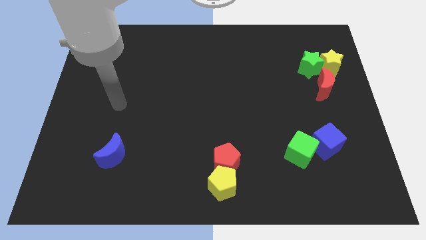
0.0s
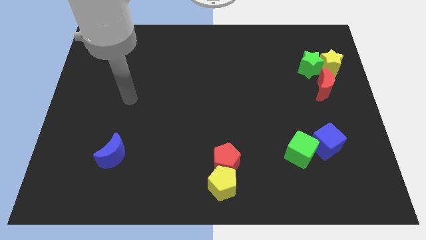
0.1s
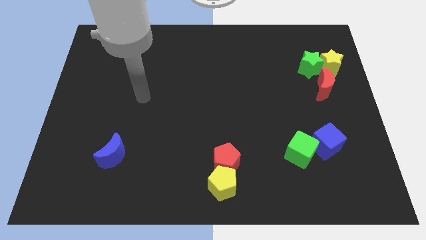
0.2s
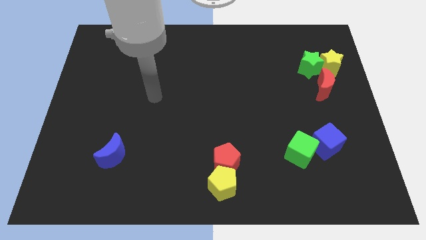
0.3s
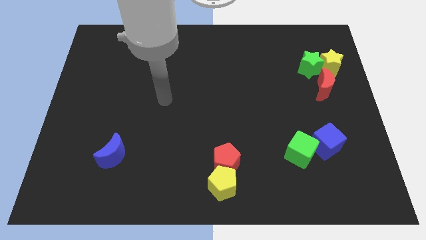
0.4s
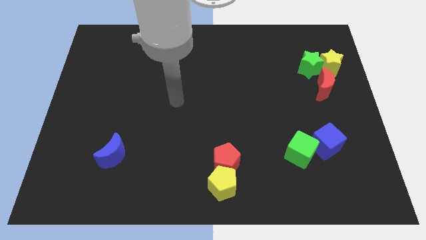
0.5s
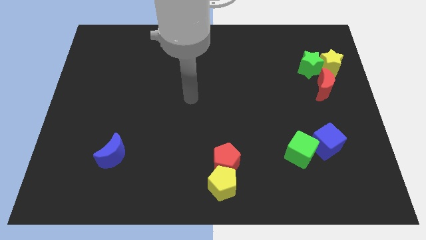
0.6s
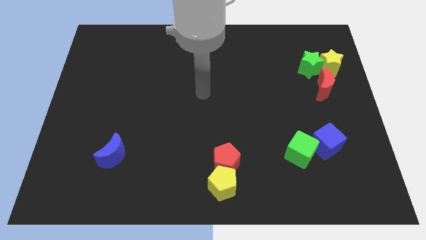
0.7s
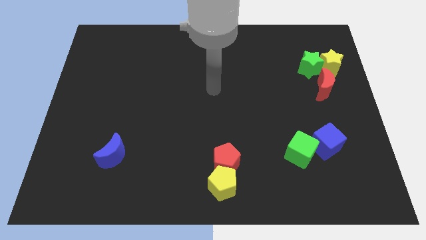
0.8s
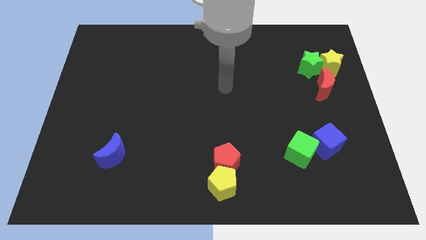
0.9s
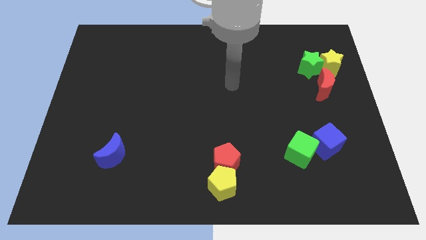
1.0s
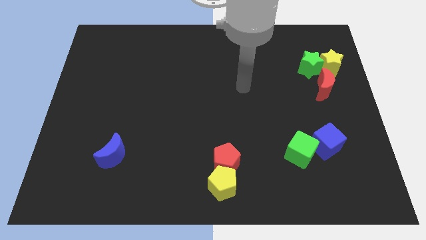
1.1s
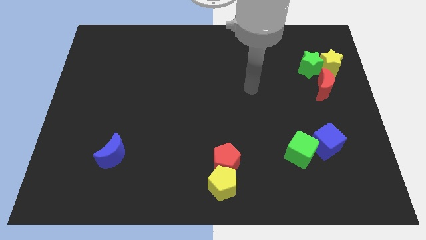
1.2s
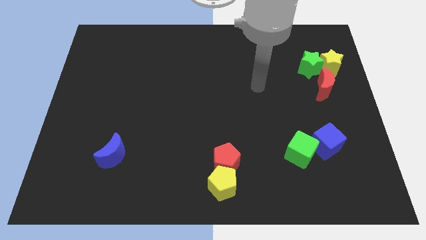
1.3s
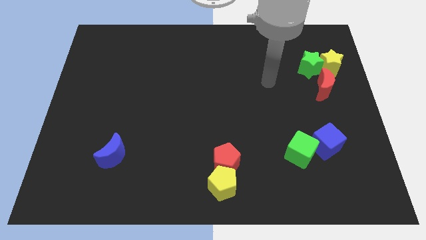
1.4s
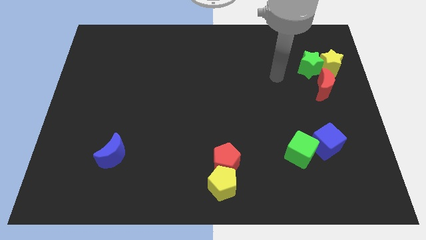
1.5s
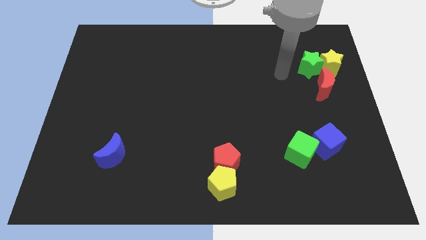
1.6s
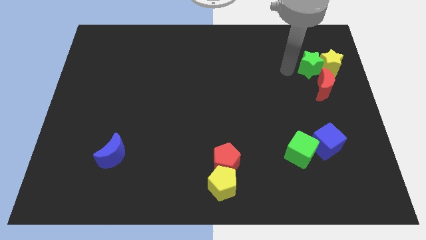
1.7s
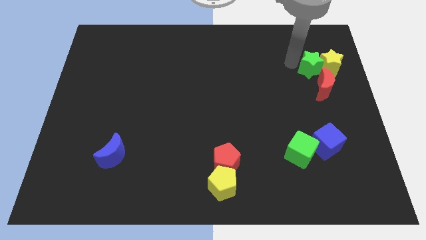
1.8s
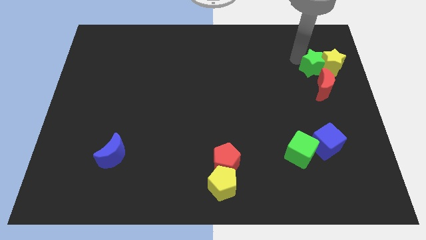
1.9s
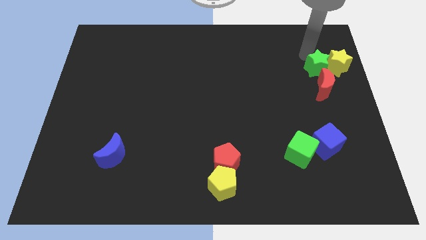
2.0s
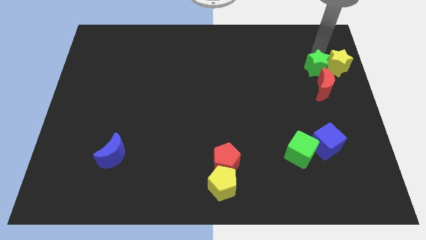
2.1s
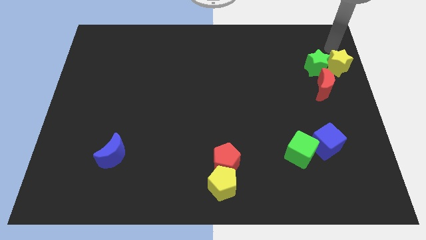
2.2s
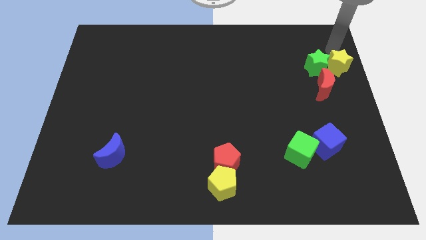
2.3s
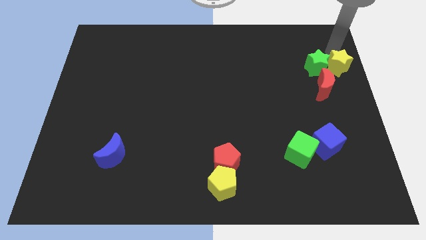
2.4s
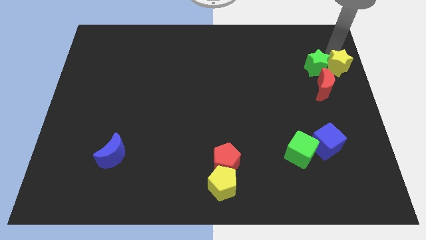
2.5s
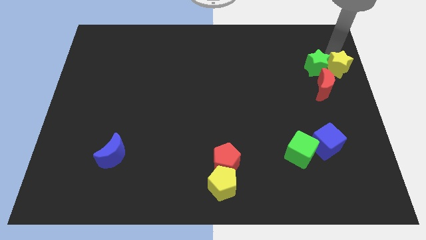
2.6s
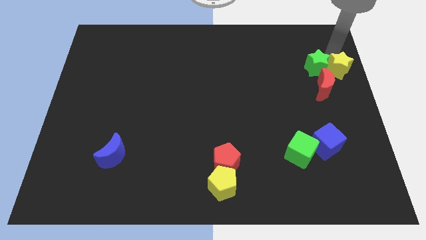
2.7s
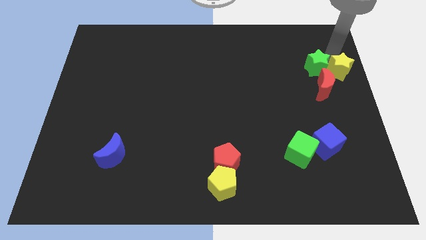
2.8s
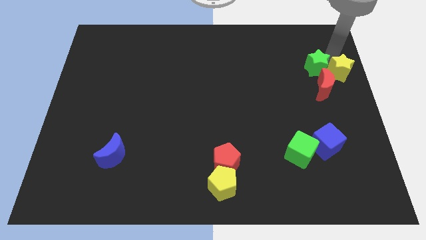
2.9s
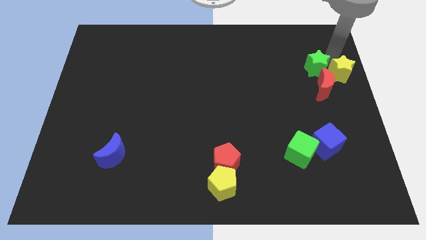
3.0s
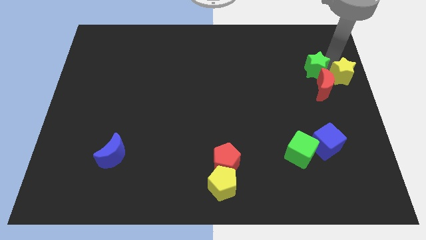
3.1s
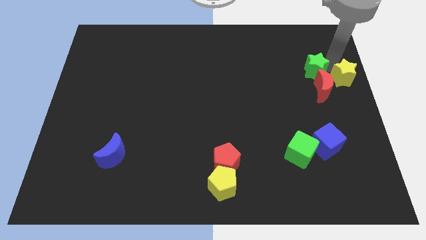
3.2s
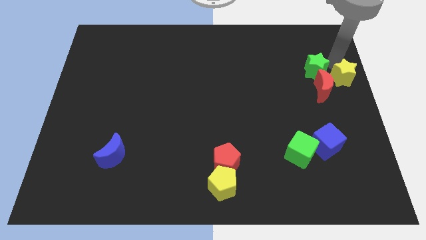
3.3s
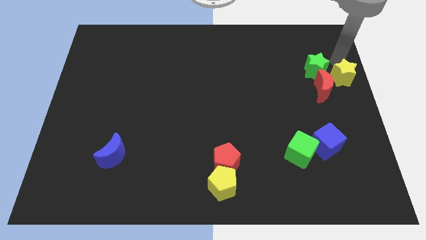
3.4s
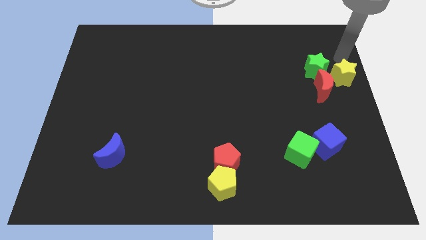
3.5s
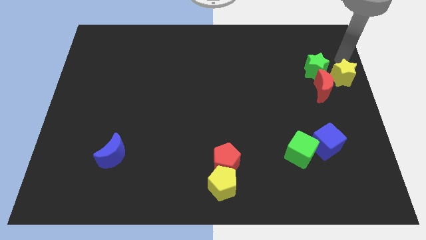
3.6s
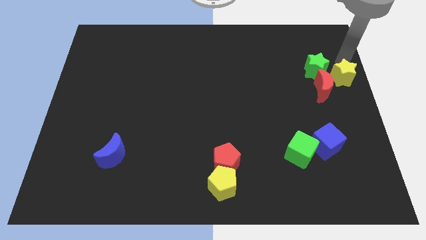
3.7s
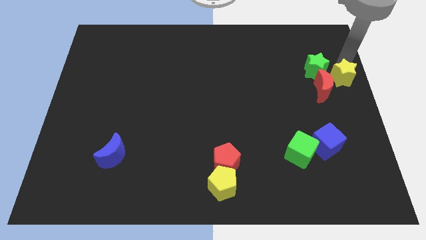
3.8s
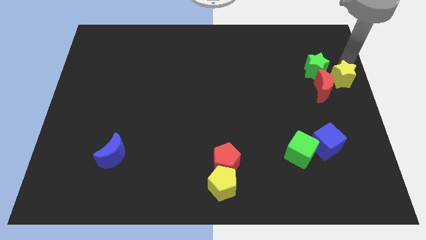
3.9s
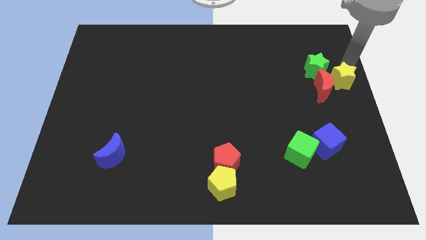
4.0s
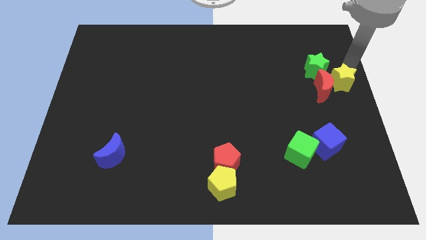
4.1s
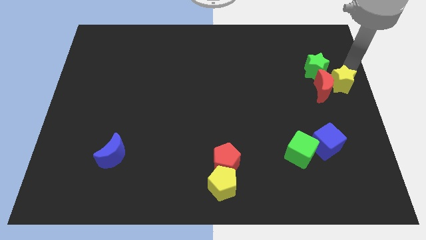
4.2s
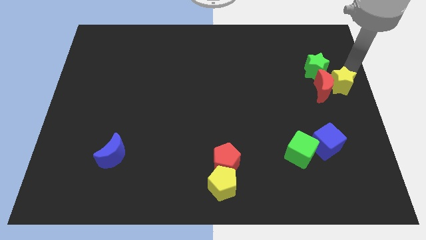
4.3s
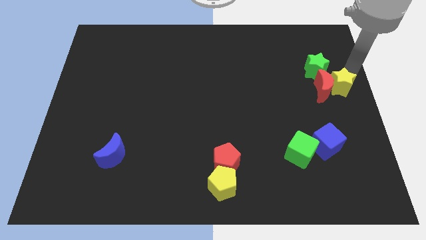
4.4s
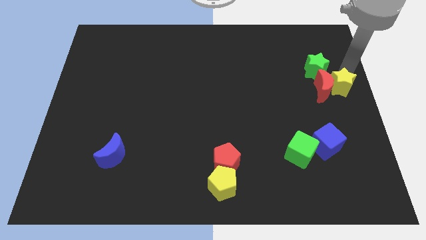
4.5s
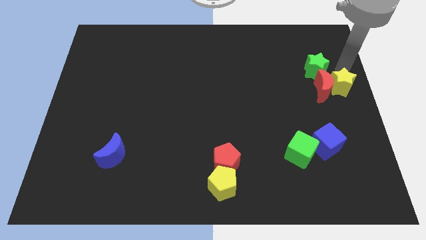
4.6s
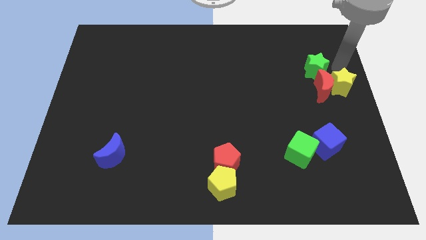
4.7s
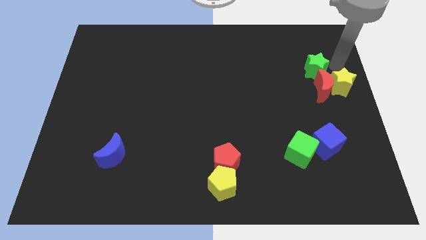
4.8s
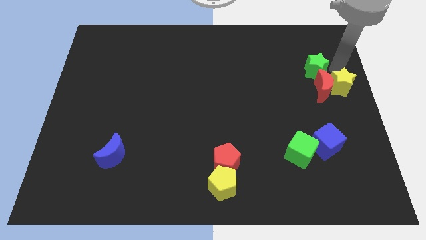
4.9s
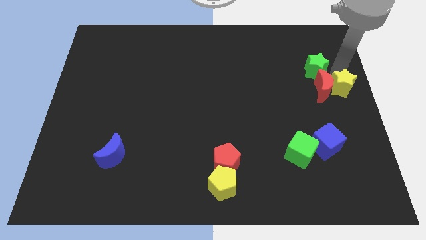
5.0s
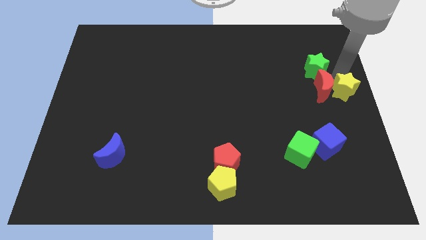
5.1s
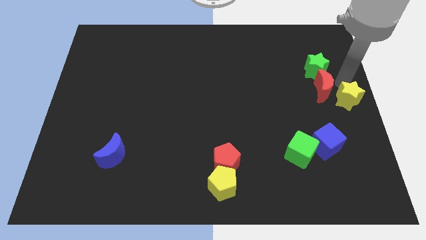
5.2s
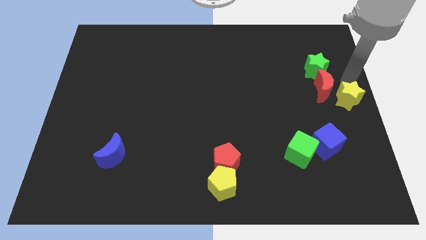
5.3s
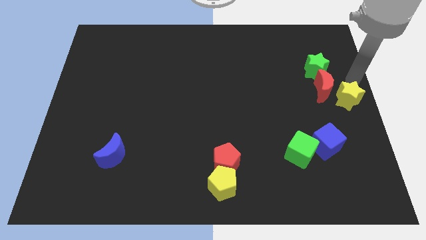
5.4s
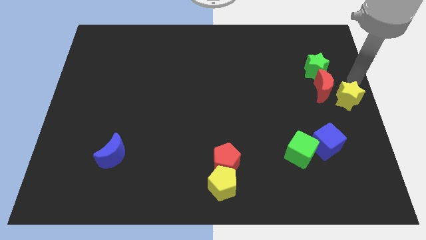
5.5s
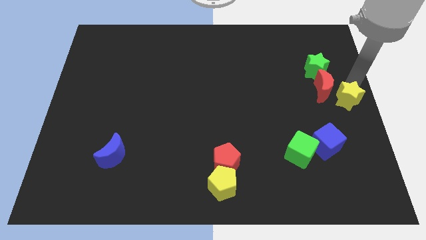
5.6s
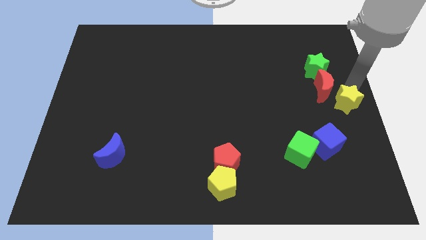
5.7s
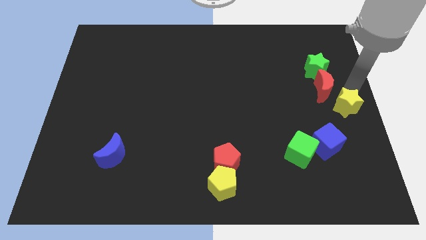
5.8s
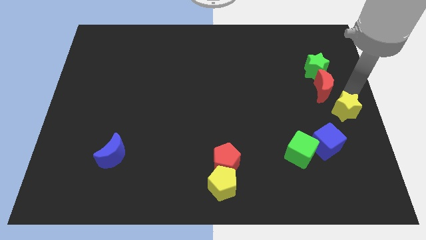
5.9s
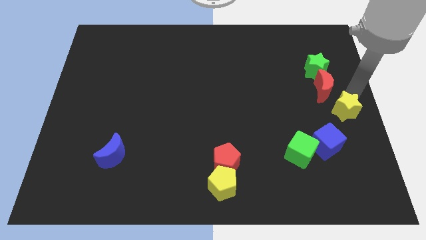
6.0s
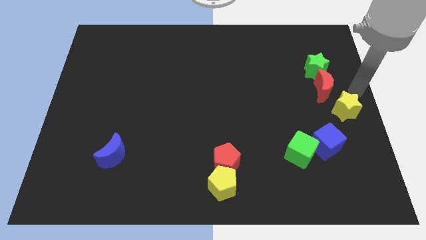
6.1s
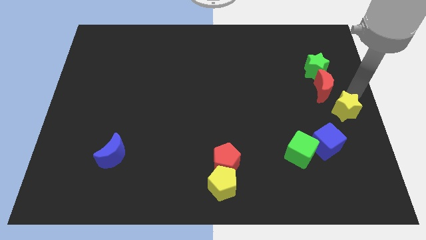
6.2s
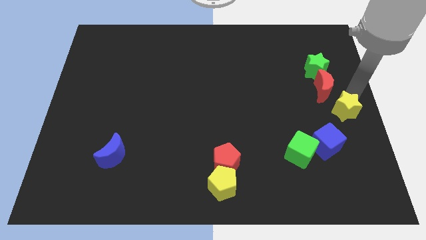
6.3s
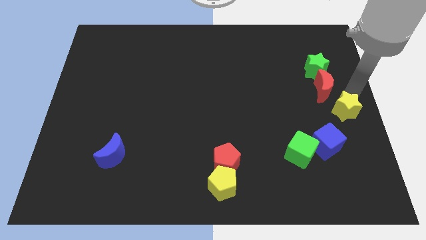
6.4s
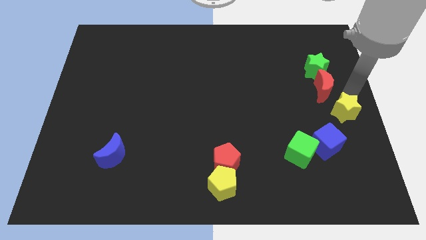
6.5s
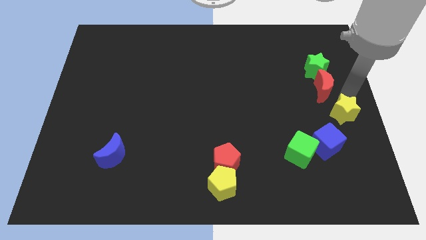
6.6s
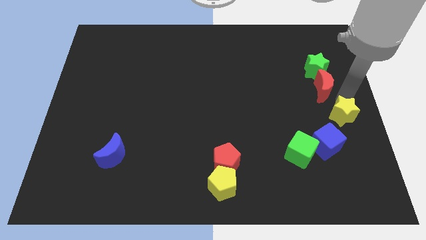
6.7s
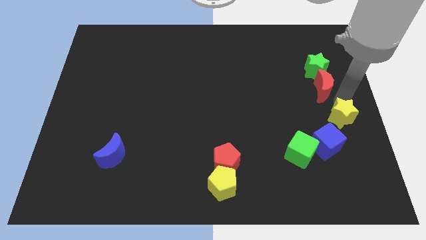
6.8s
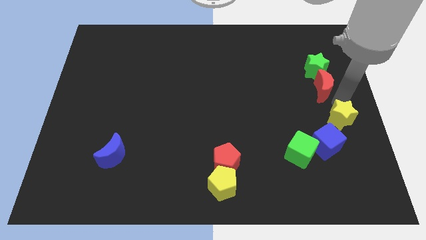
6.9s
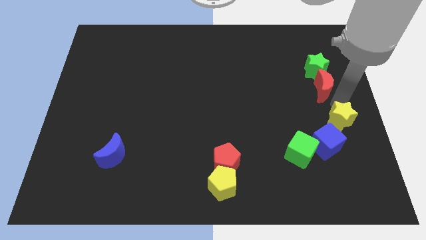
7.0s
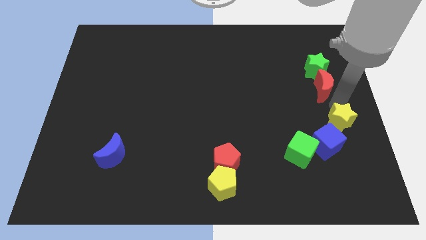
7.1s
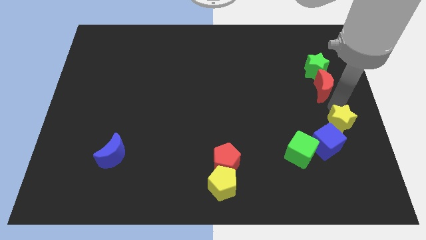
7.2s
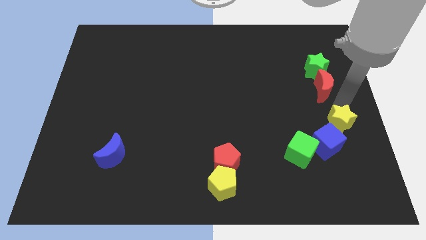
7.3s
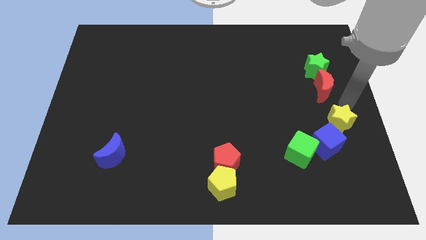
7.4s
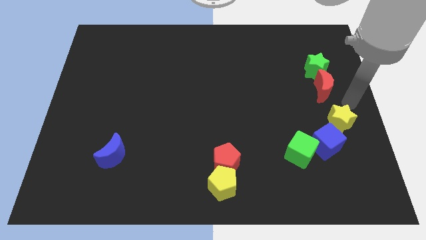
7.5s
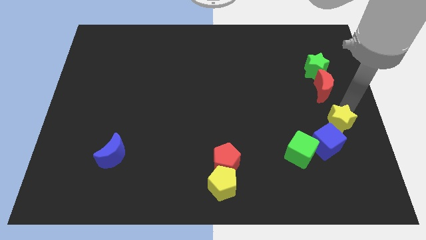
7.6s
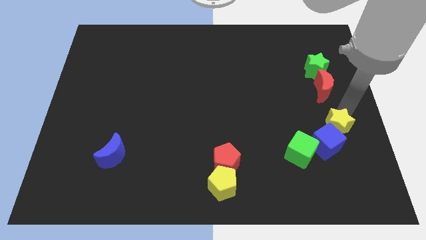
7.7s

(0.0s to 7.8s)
slide the yellow star close to the blue cube
